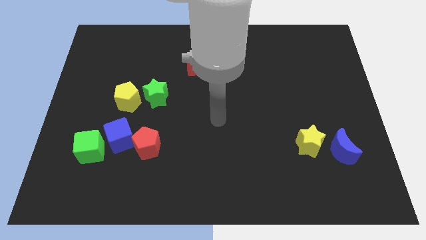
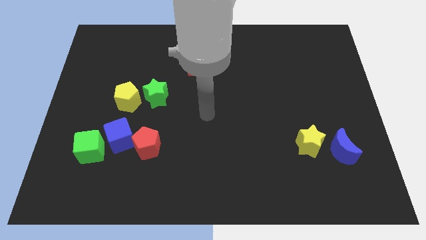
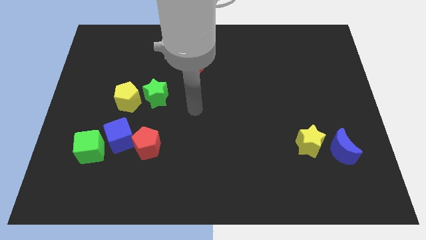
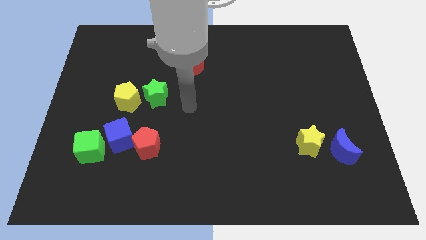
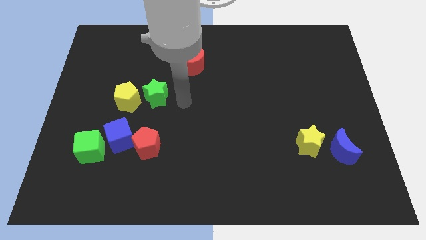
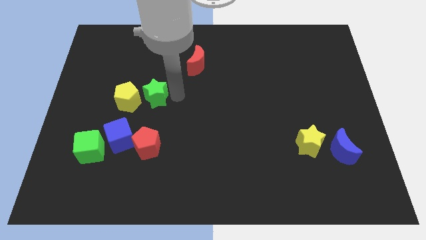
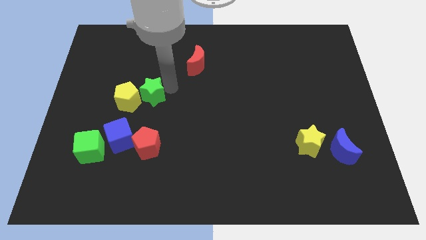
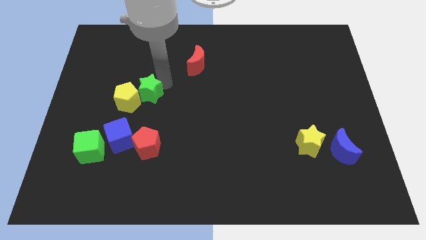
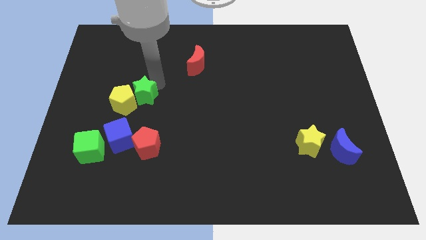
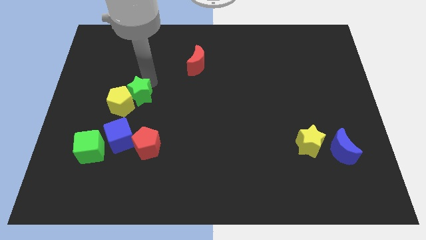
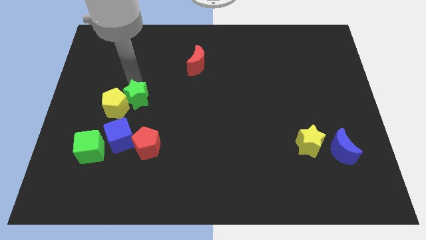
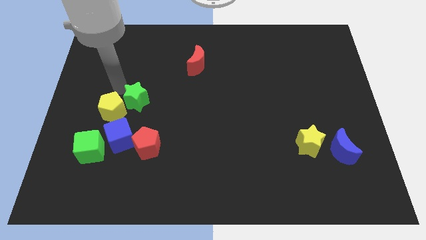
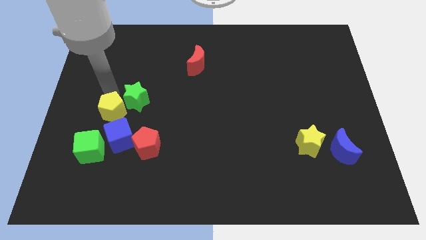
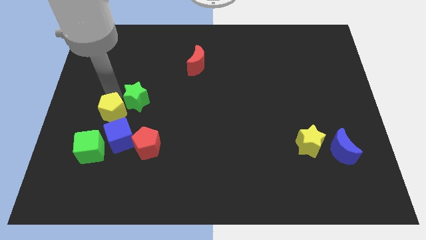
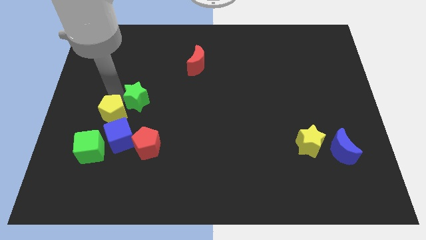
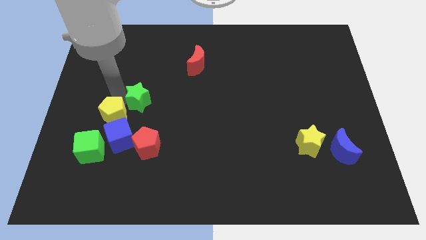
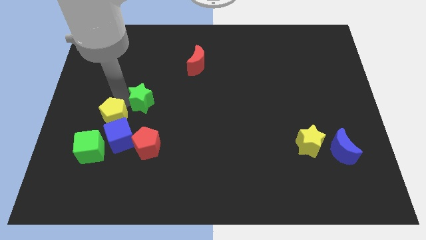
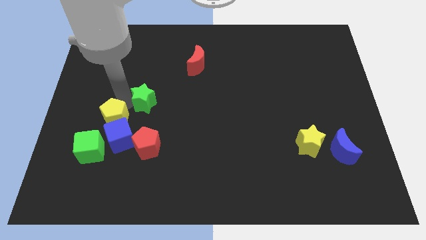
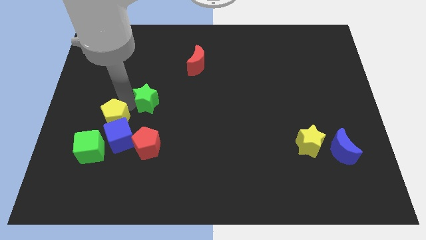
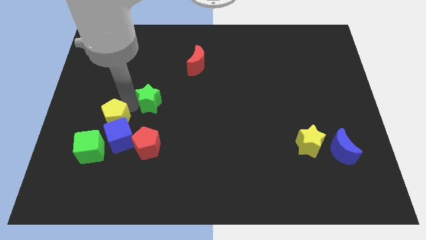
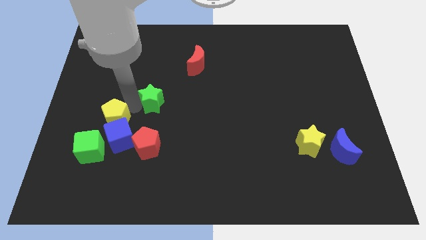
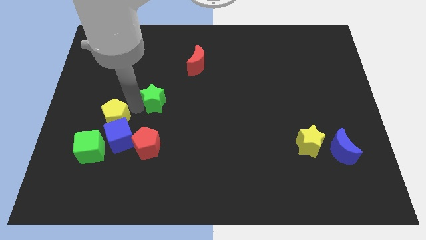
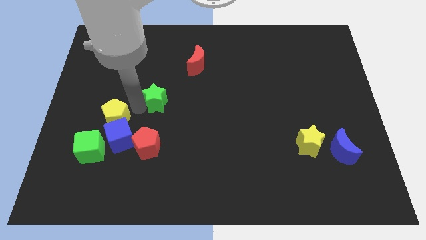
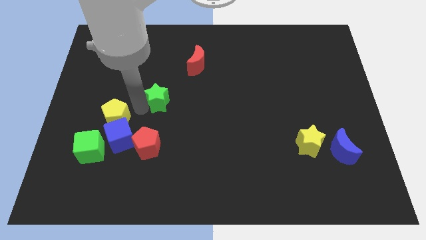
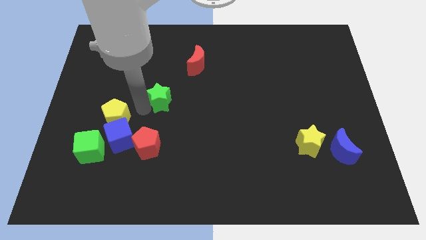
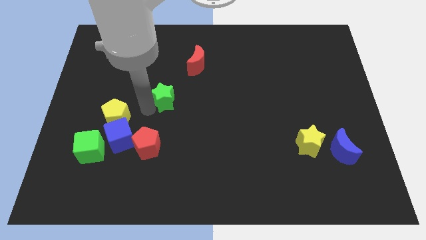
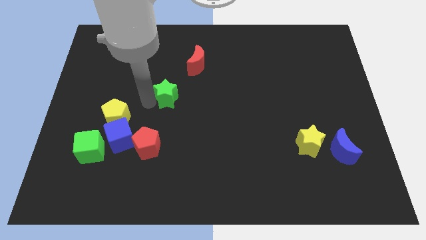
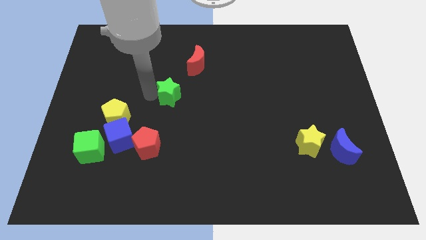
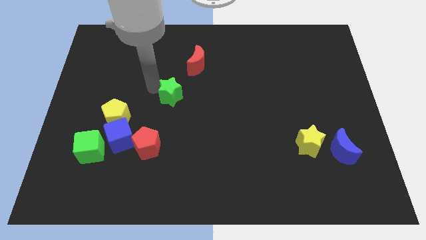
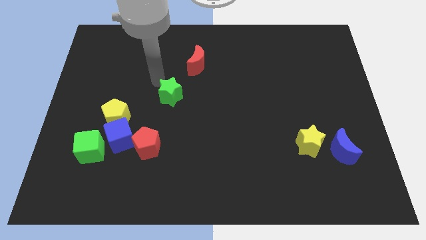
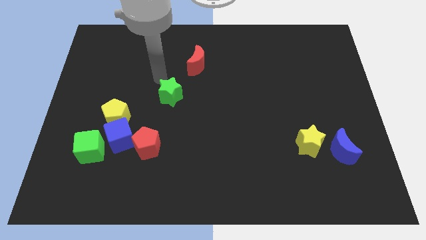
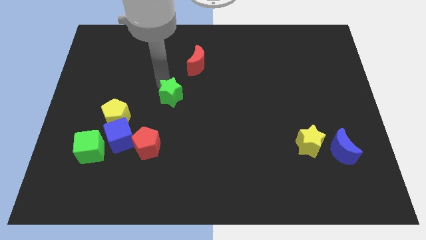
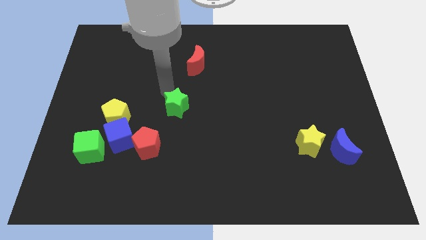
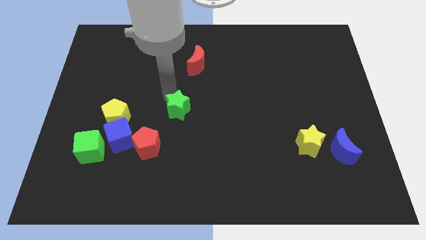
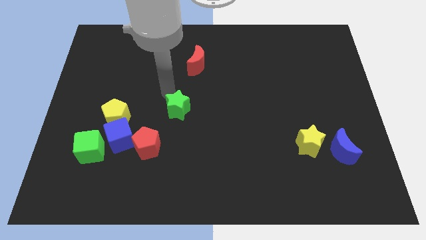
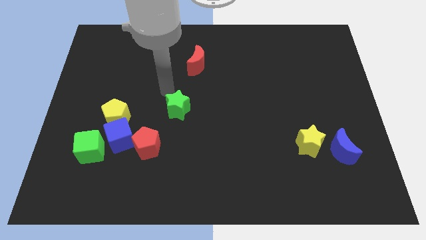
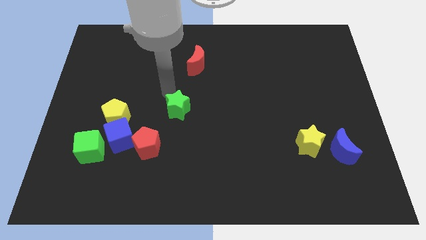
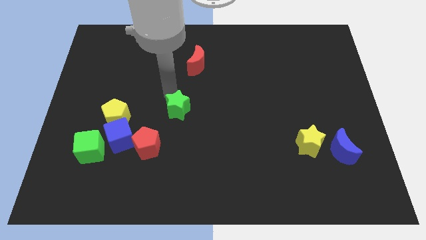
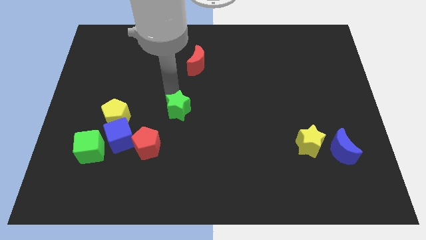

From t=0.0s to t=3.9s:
push the green star diagonally down and to the right a bit

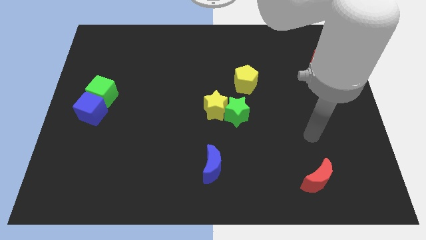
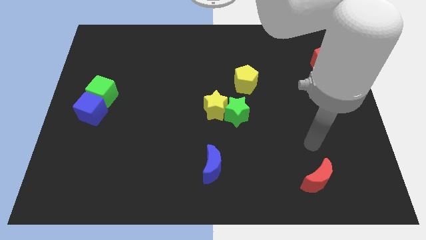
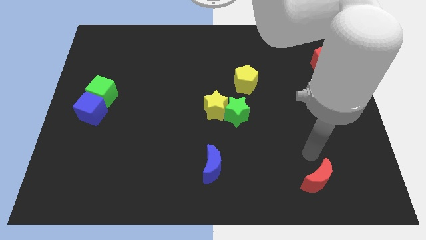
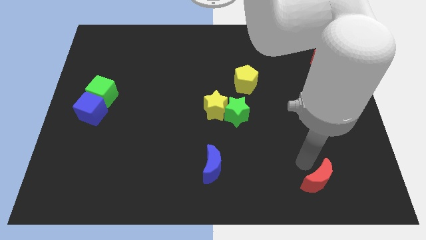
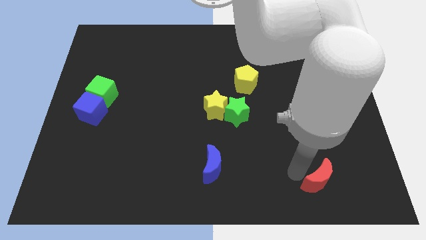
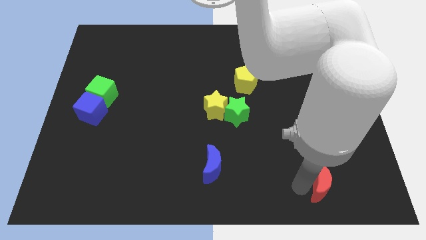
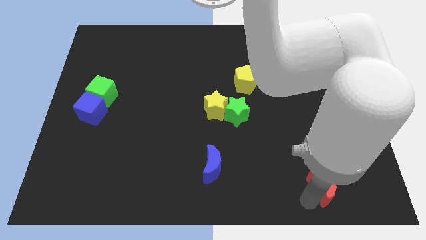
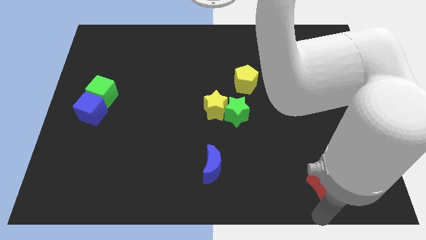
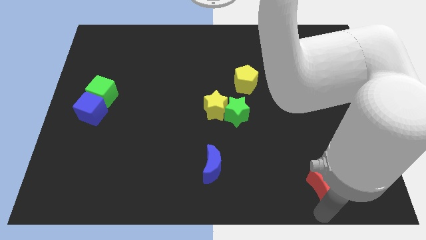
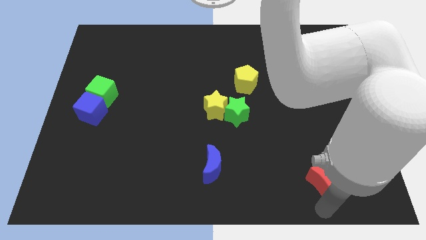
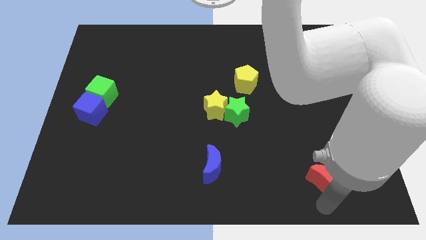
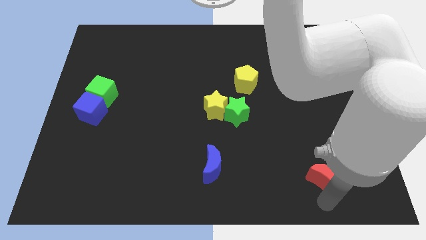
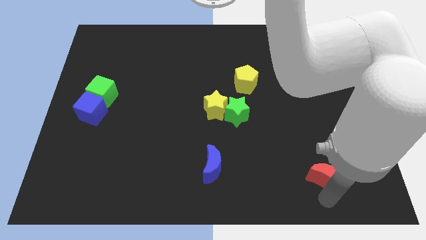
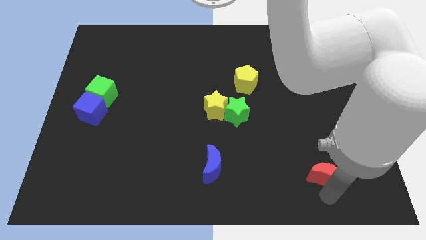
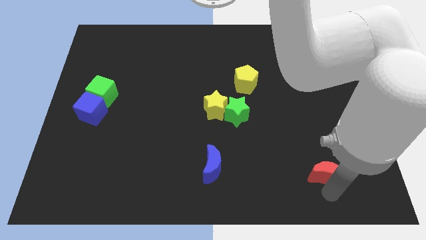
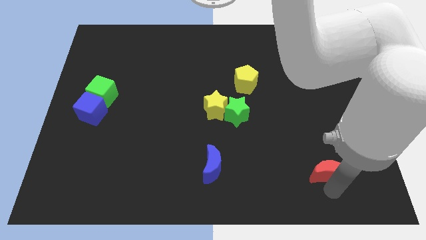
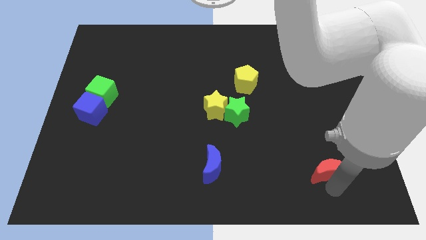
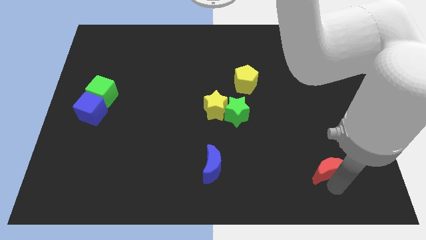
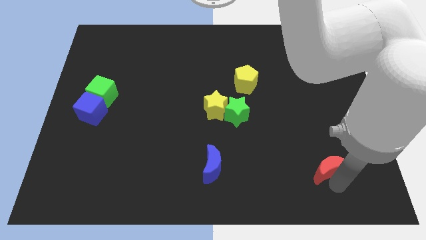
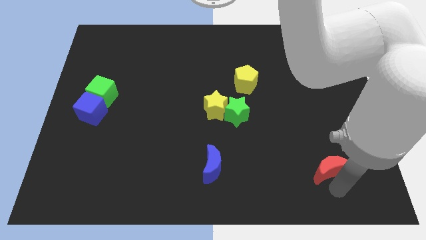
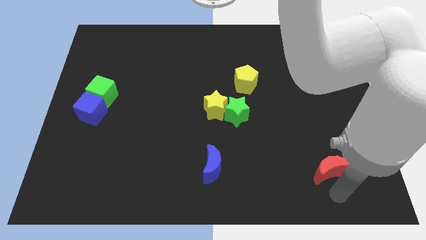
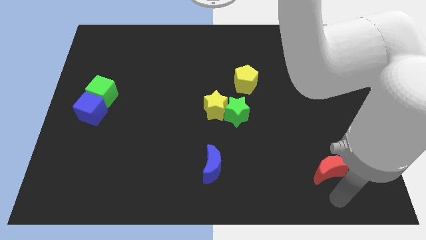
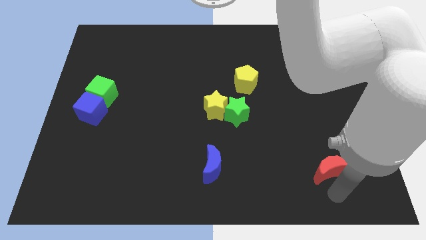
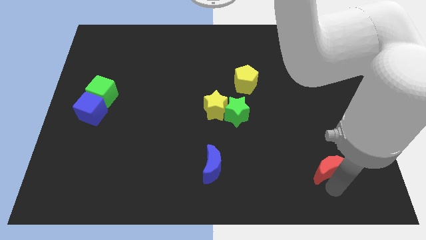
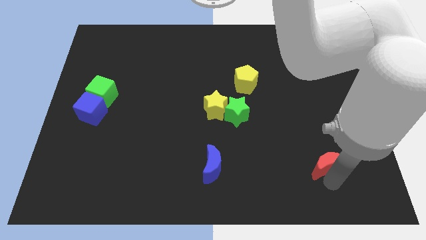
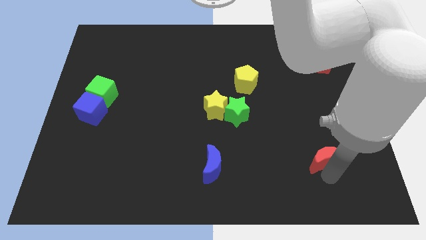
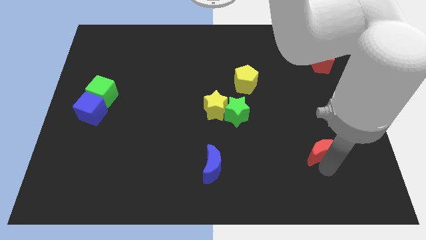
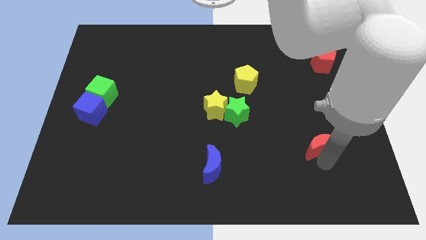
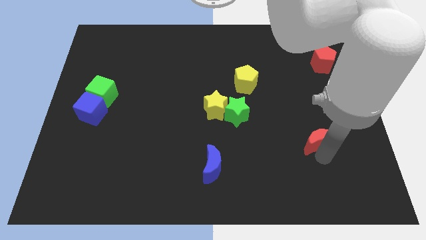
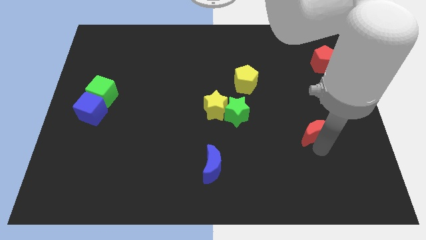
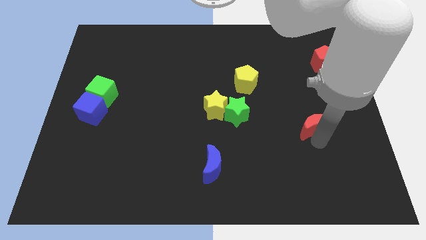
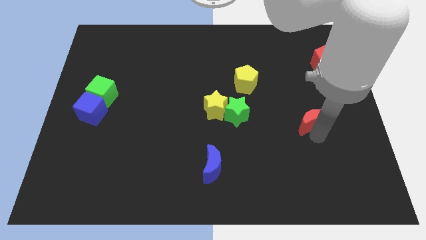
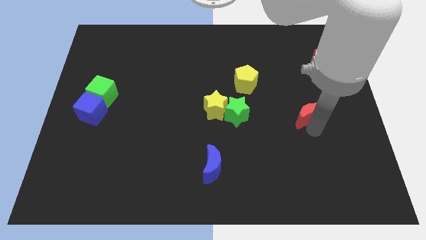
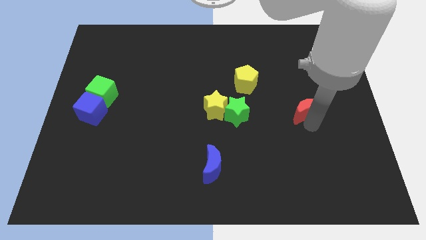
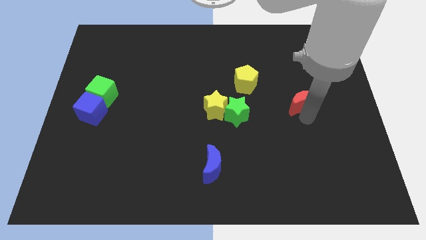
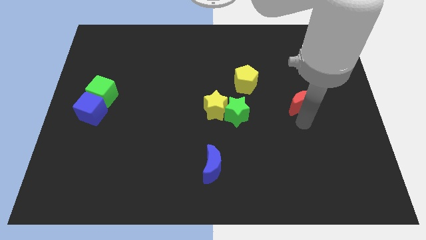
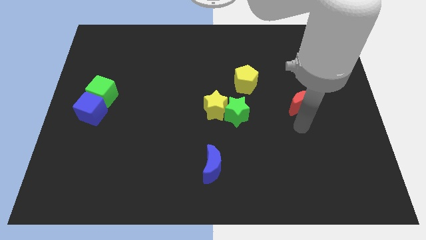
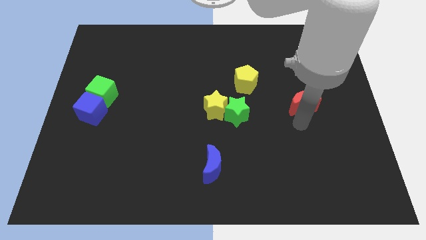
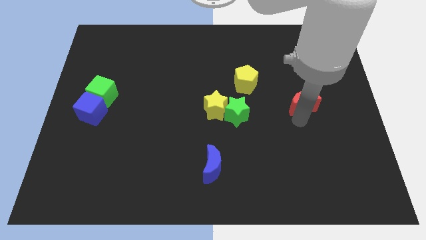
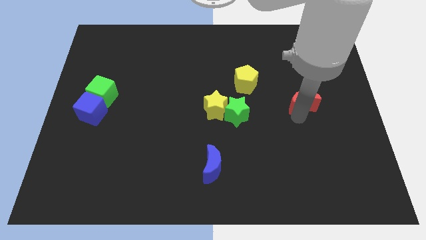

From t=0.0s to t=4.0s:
slide the red moon upwards

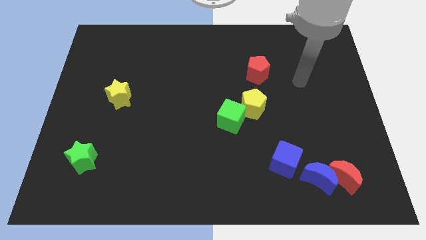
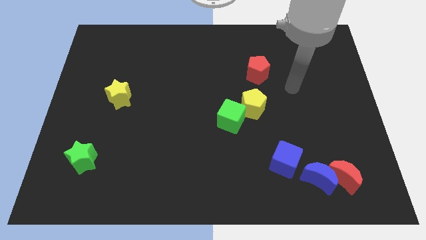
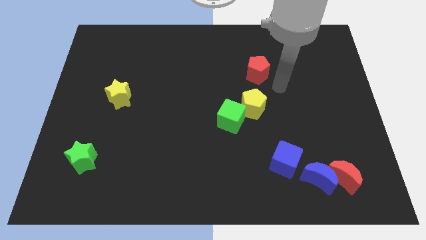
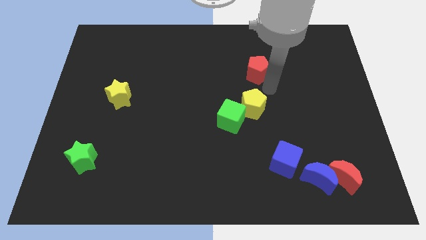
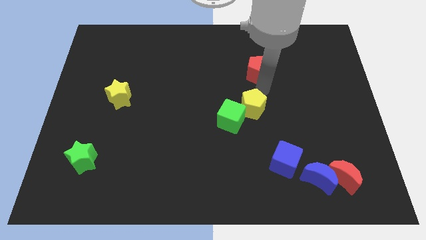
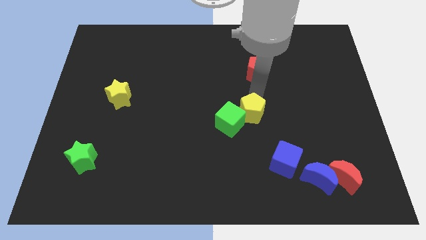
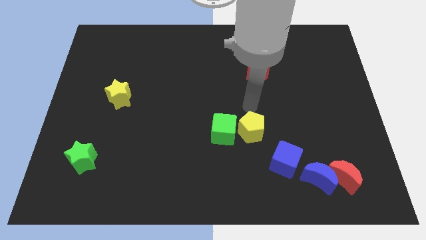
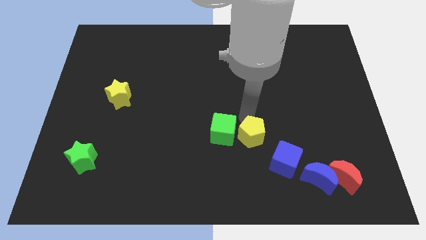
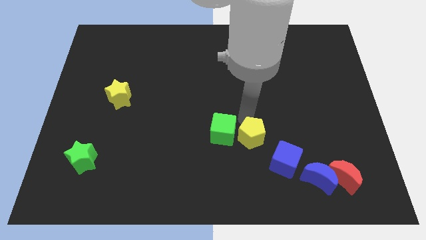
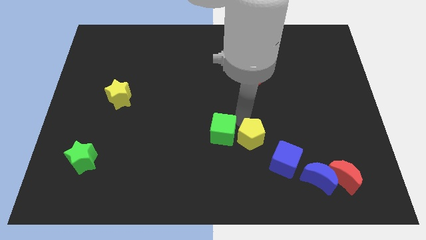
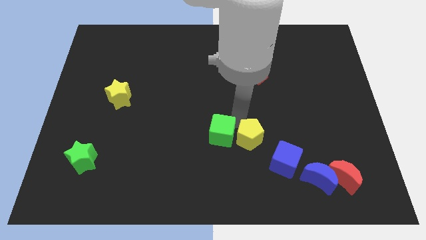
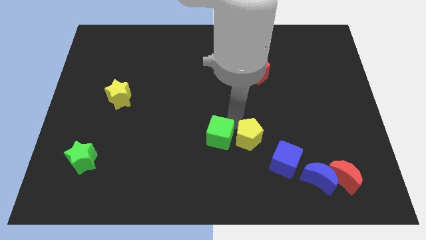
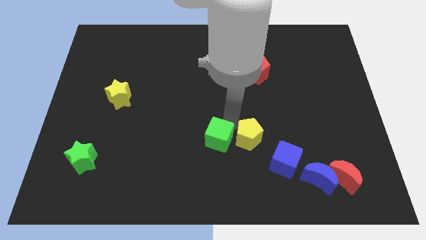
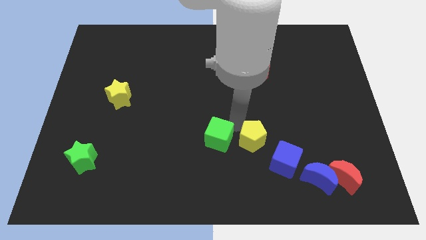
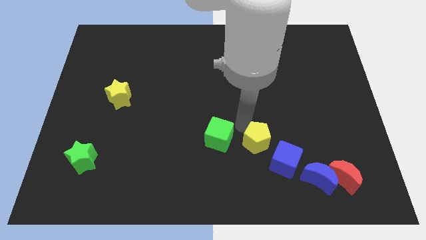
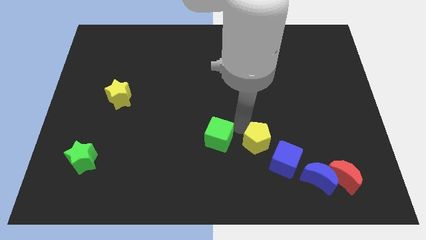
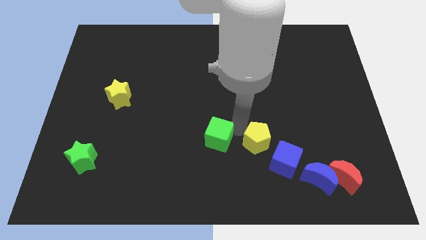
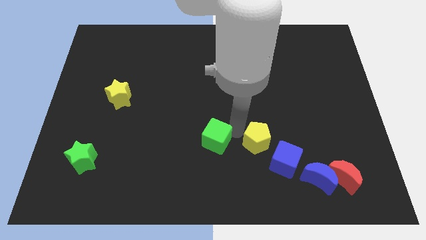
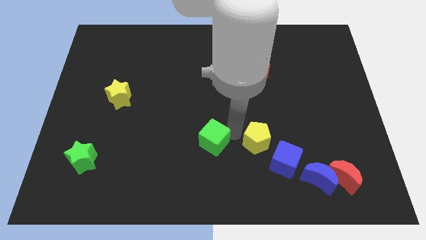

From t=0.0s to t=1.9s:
slide the green cube slightly downwards and to the left
